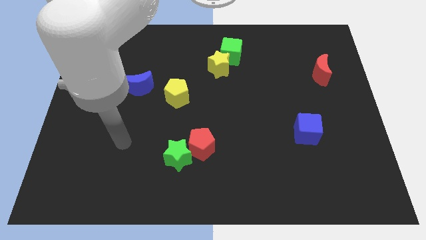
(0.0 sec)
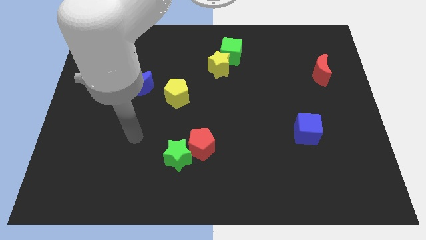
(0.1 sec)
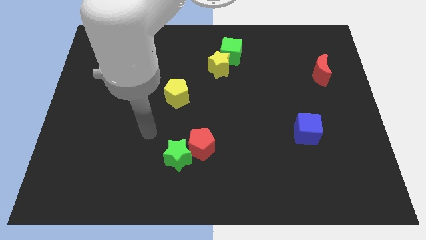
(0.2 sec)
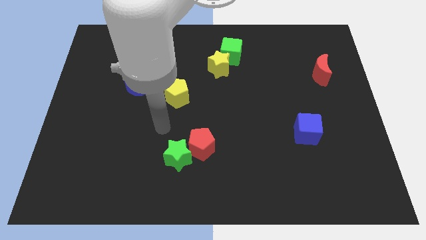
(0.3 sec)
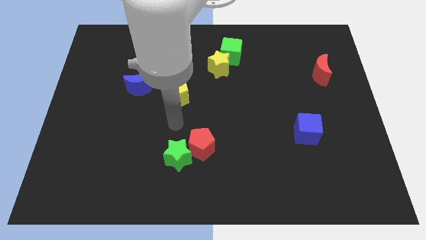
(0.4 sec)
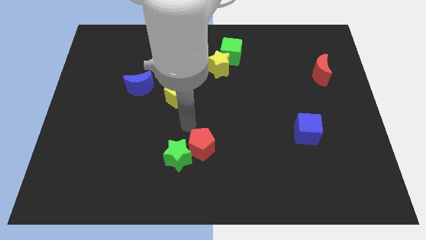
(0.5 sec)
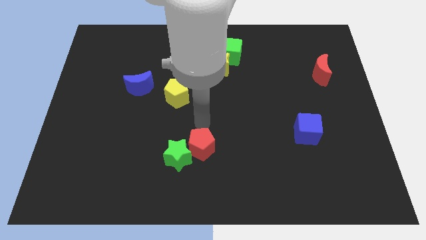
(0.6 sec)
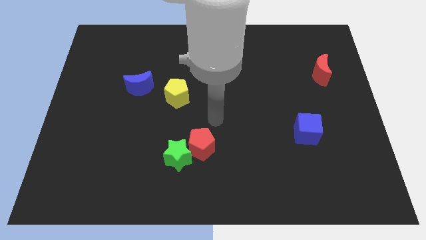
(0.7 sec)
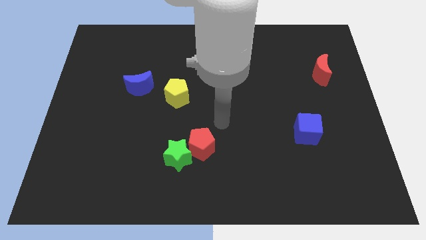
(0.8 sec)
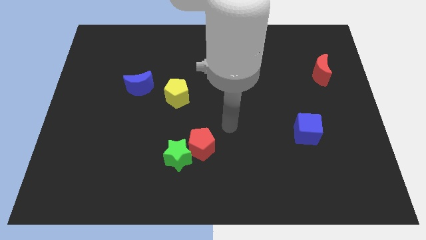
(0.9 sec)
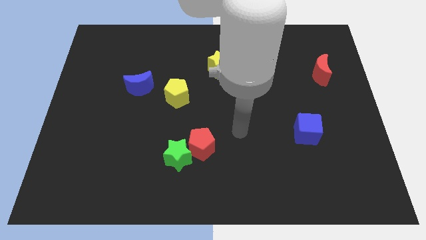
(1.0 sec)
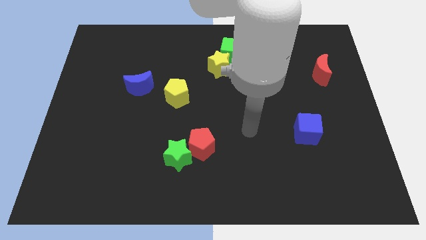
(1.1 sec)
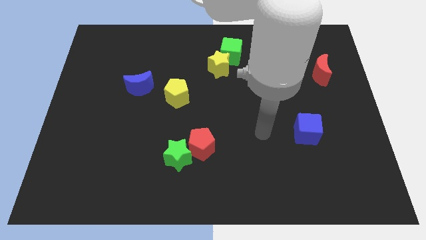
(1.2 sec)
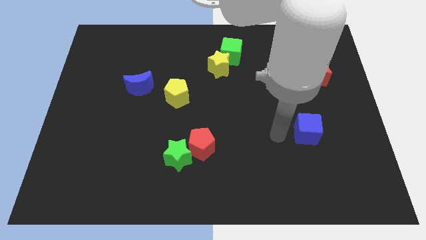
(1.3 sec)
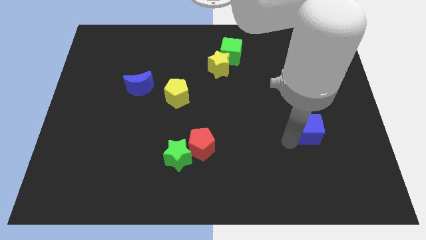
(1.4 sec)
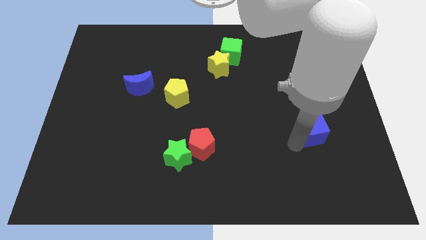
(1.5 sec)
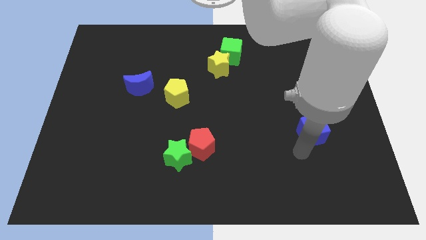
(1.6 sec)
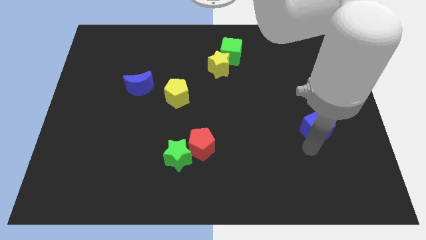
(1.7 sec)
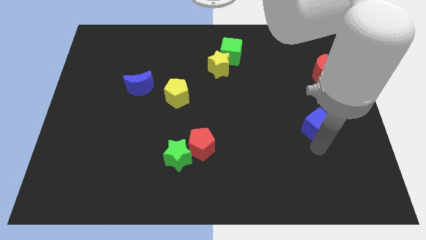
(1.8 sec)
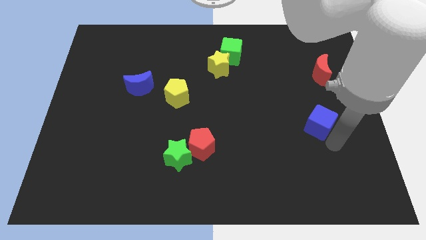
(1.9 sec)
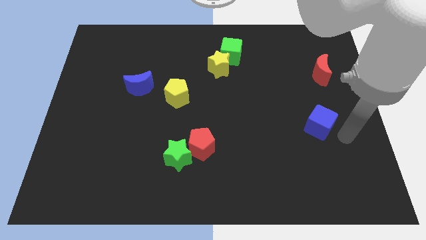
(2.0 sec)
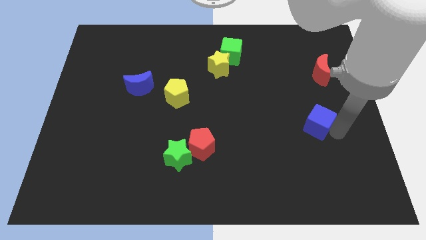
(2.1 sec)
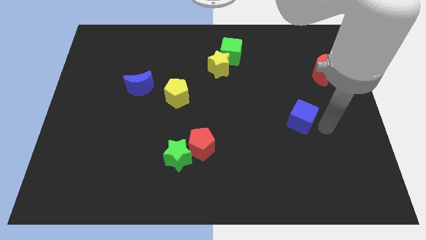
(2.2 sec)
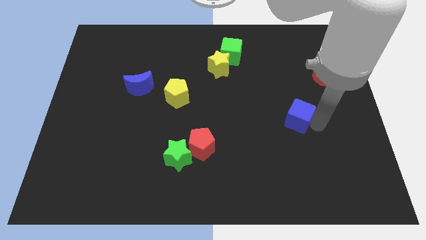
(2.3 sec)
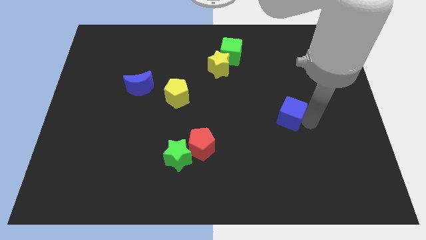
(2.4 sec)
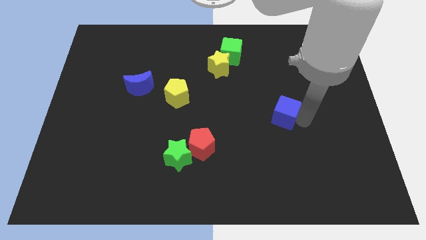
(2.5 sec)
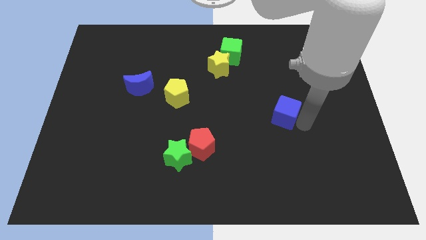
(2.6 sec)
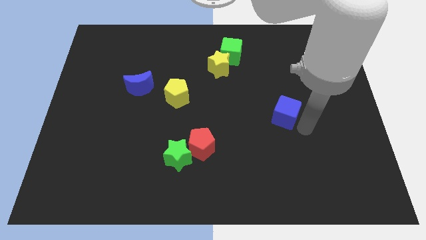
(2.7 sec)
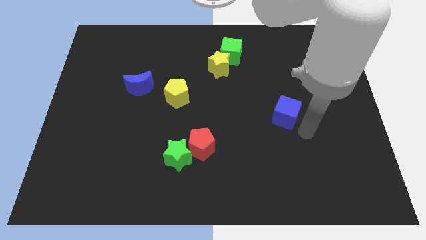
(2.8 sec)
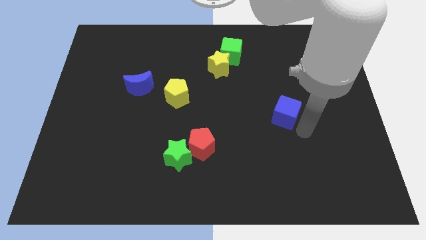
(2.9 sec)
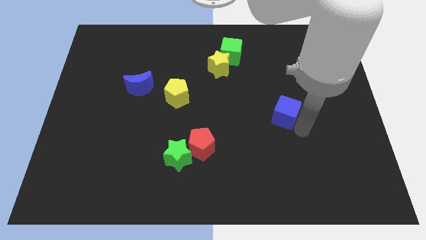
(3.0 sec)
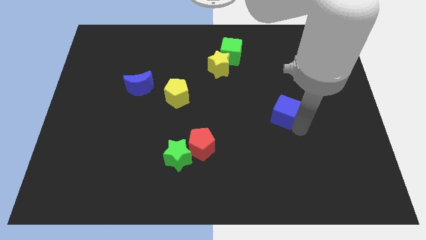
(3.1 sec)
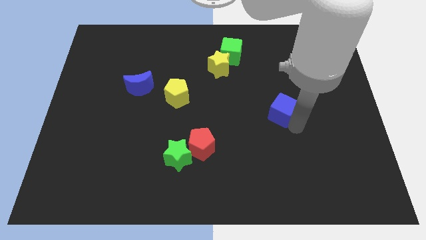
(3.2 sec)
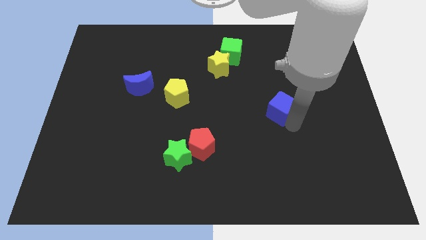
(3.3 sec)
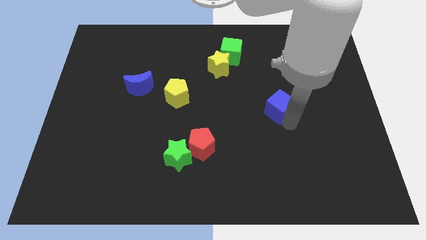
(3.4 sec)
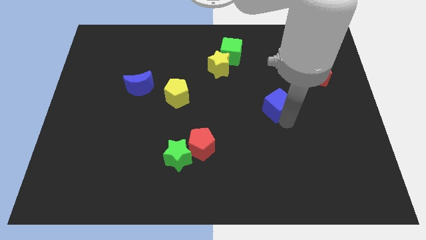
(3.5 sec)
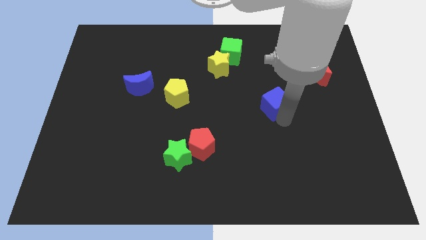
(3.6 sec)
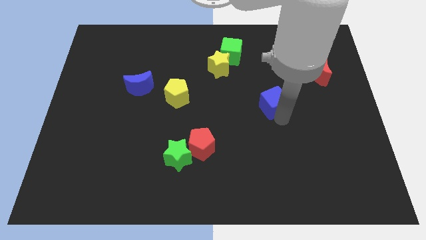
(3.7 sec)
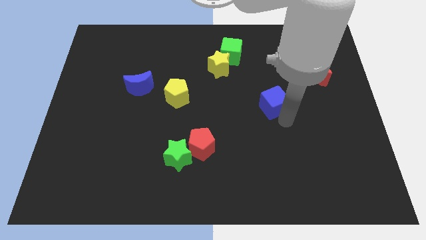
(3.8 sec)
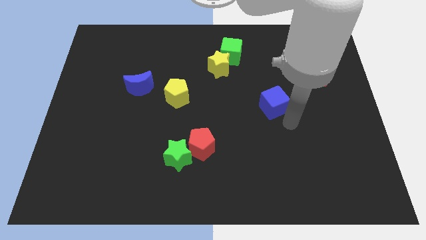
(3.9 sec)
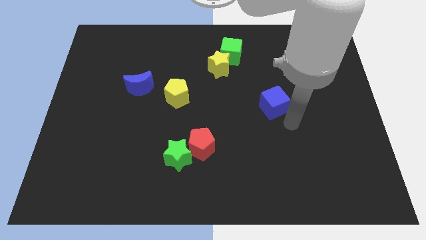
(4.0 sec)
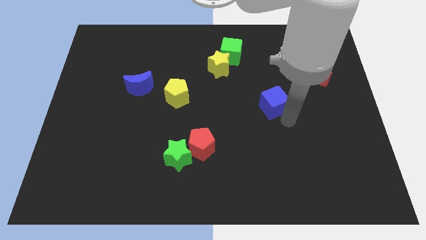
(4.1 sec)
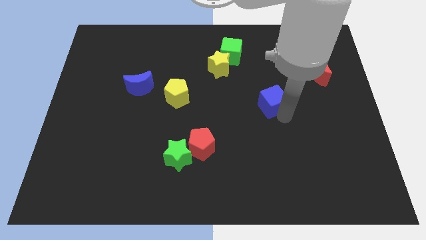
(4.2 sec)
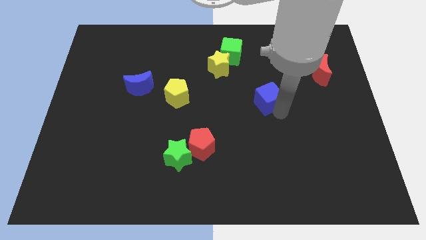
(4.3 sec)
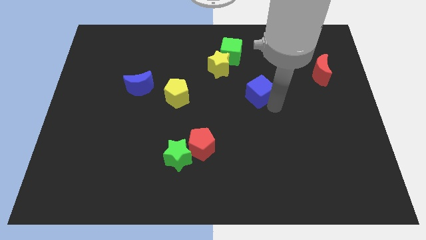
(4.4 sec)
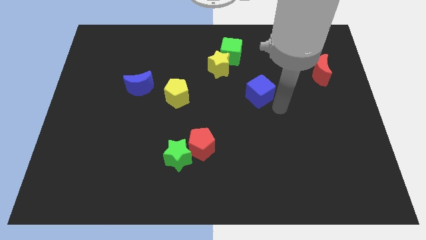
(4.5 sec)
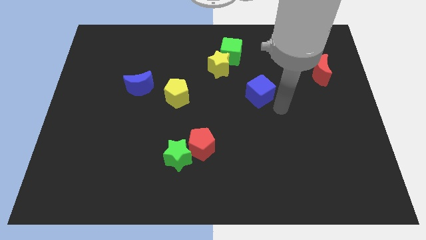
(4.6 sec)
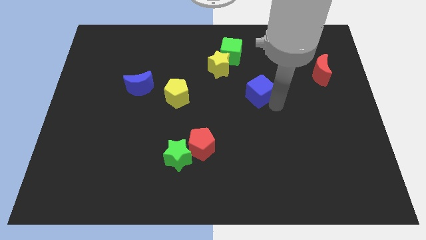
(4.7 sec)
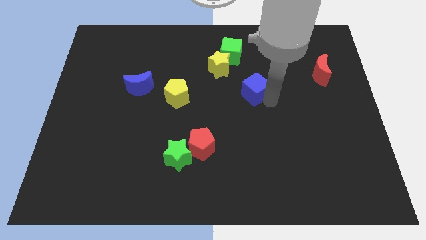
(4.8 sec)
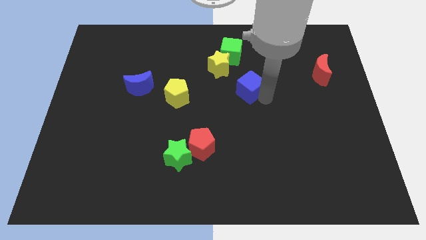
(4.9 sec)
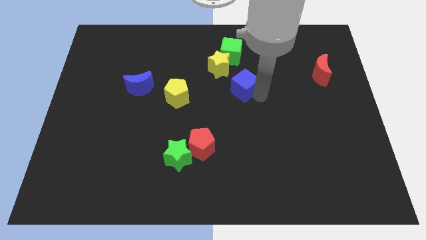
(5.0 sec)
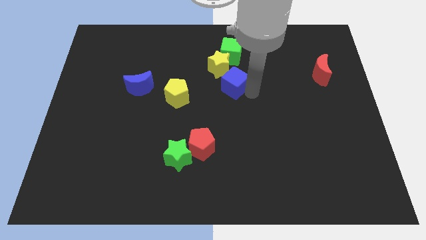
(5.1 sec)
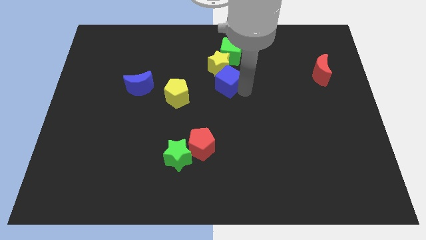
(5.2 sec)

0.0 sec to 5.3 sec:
slide the blue cube next to the yellow star

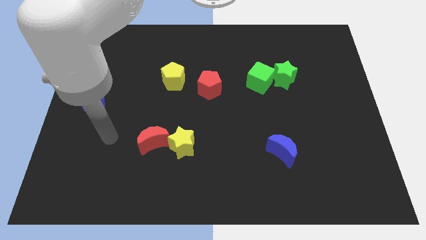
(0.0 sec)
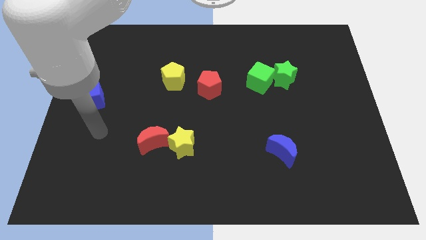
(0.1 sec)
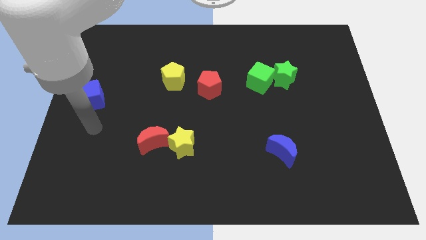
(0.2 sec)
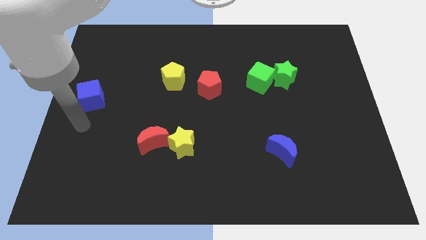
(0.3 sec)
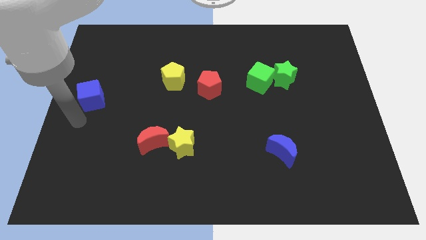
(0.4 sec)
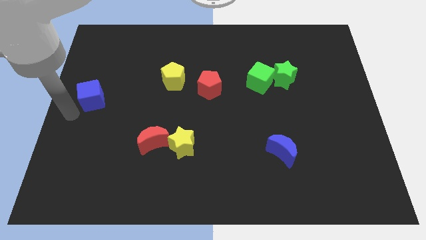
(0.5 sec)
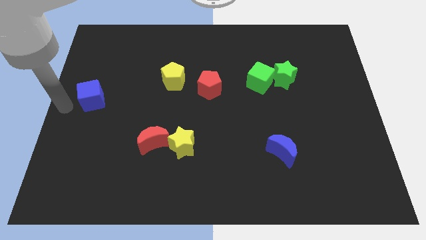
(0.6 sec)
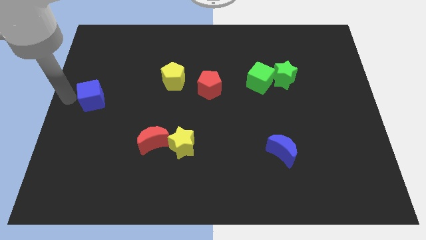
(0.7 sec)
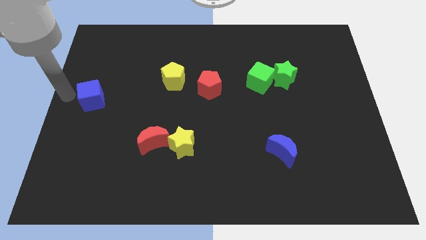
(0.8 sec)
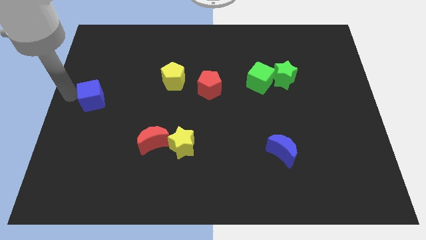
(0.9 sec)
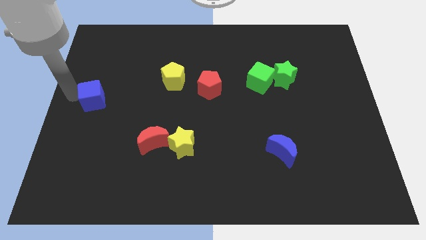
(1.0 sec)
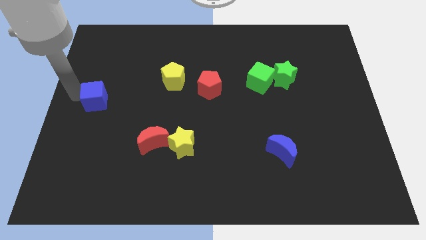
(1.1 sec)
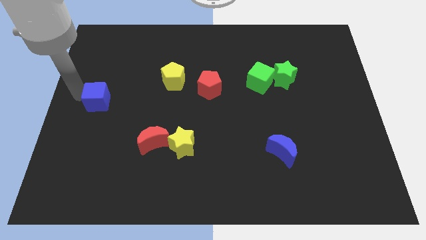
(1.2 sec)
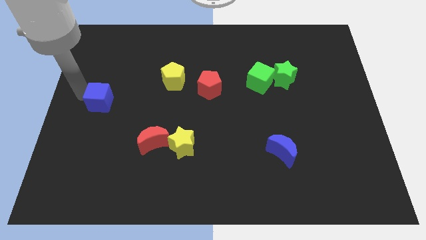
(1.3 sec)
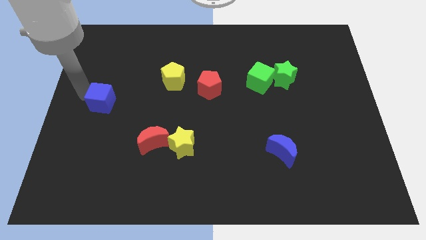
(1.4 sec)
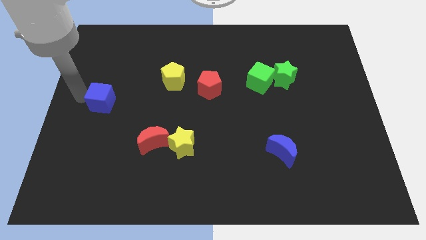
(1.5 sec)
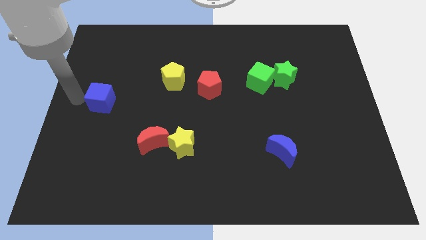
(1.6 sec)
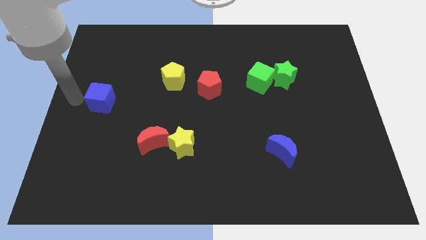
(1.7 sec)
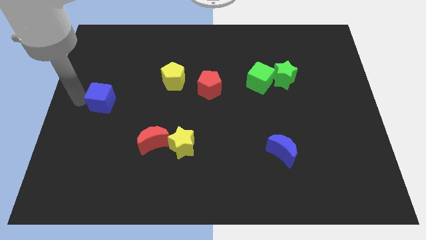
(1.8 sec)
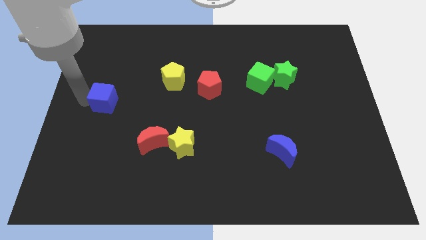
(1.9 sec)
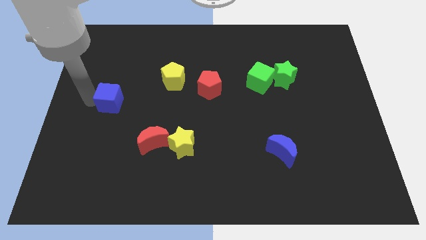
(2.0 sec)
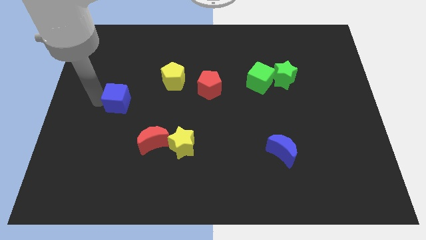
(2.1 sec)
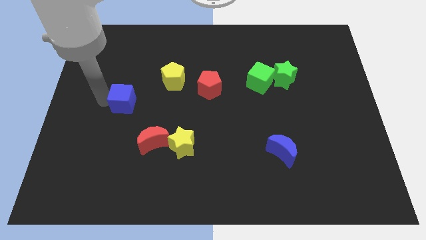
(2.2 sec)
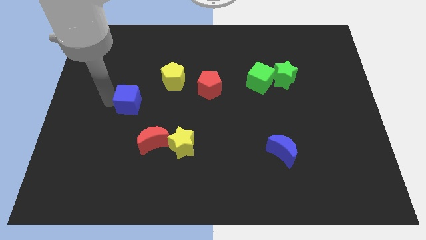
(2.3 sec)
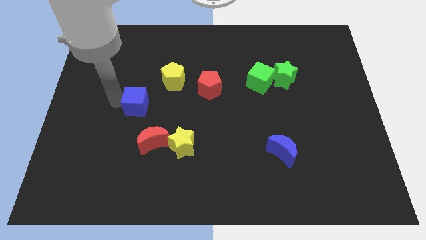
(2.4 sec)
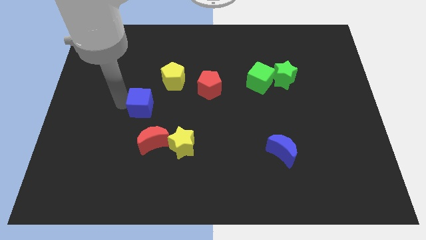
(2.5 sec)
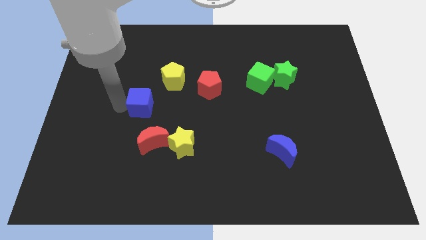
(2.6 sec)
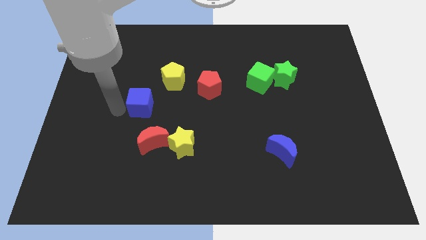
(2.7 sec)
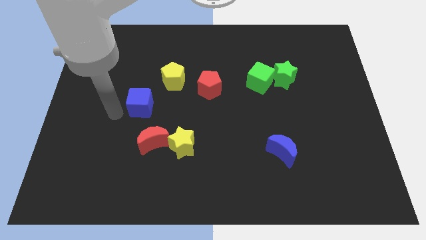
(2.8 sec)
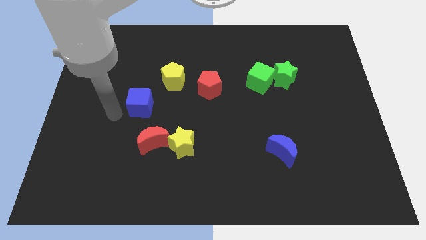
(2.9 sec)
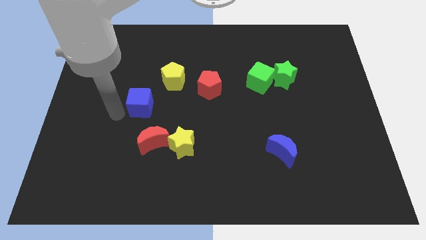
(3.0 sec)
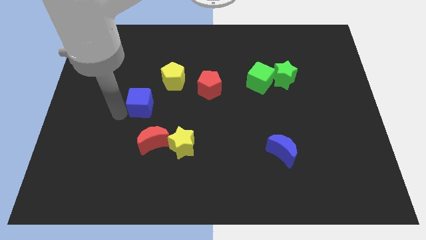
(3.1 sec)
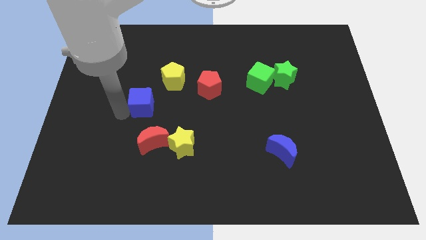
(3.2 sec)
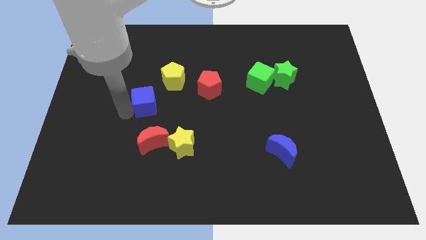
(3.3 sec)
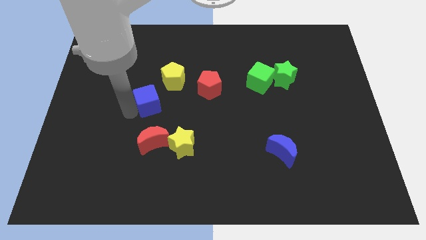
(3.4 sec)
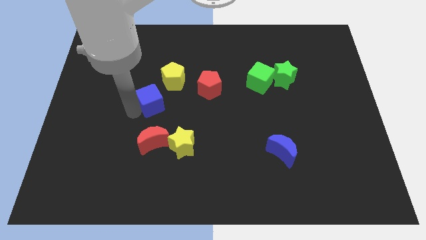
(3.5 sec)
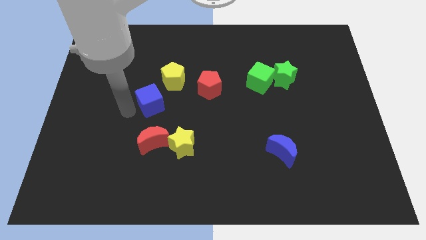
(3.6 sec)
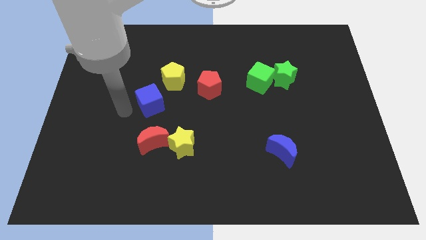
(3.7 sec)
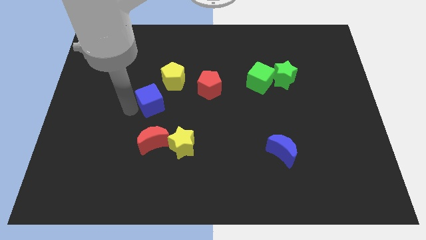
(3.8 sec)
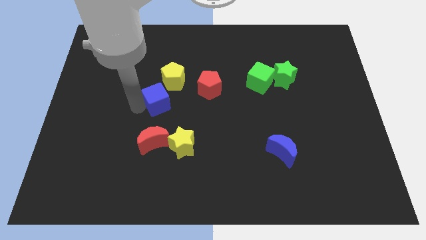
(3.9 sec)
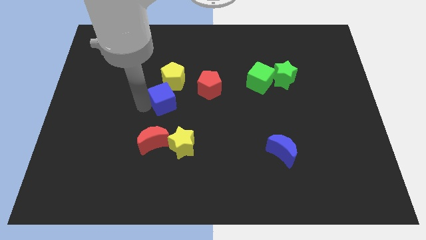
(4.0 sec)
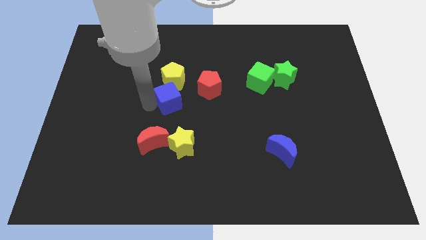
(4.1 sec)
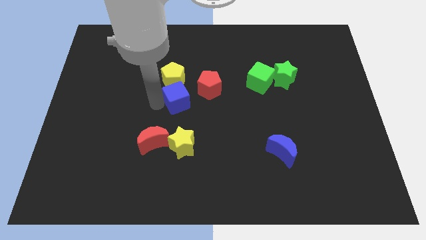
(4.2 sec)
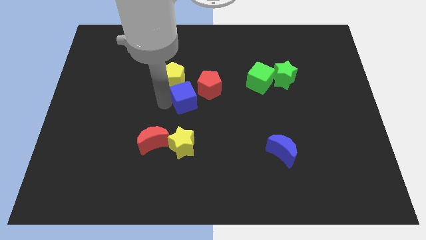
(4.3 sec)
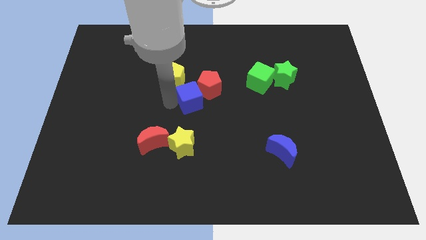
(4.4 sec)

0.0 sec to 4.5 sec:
push the blue cube close to the red pentagon
